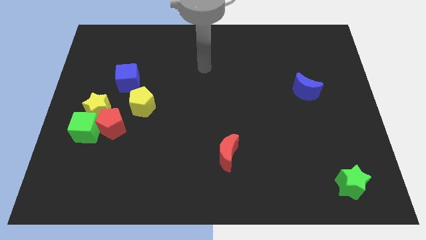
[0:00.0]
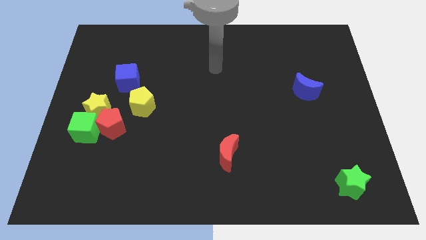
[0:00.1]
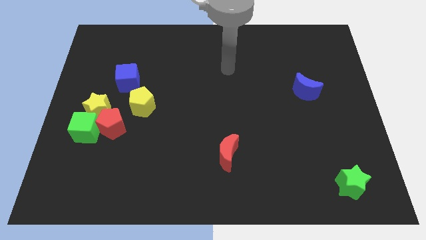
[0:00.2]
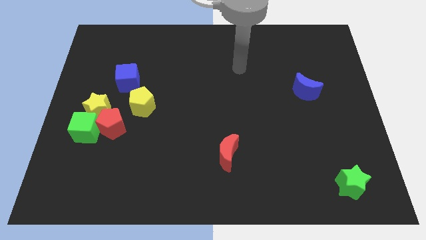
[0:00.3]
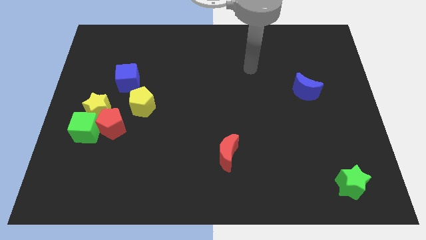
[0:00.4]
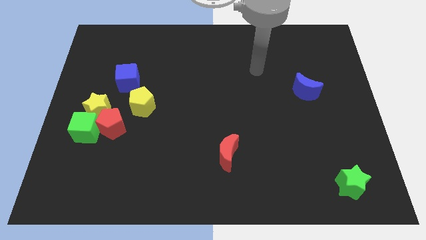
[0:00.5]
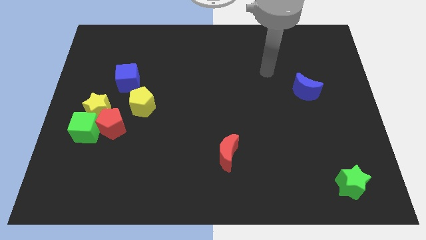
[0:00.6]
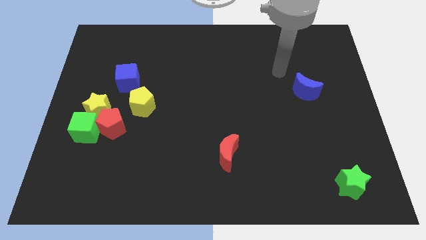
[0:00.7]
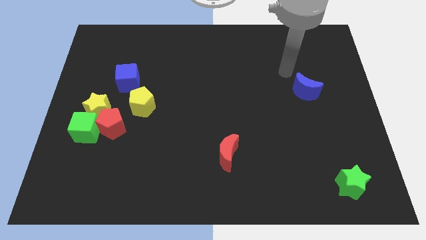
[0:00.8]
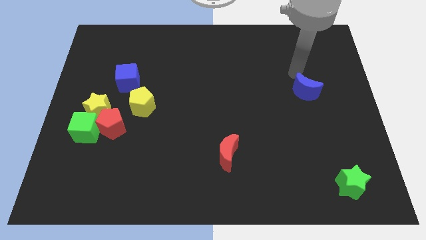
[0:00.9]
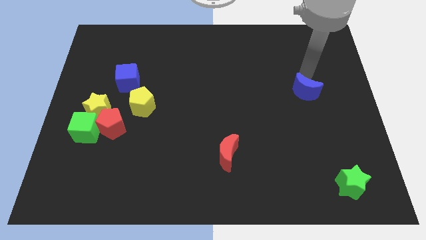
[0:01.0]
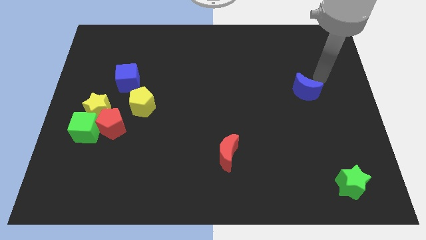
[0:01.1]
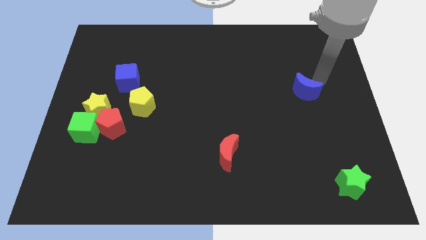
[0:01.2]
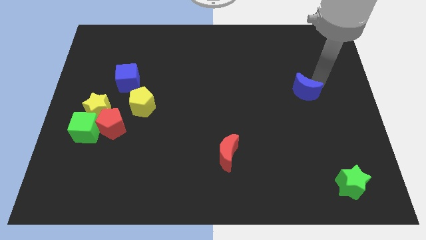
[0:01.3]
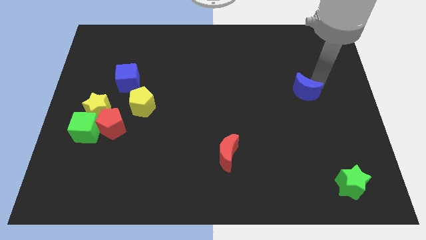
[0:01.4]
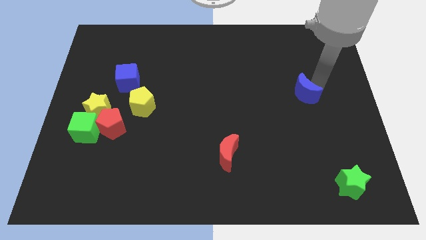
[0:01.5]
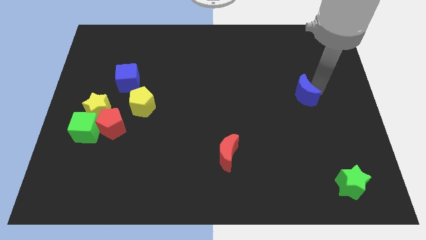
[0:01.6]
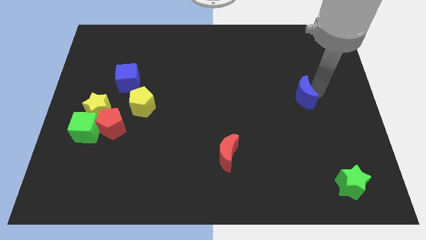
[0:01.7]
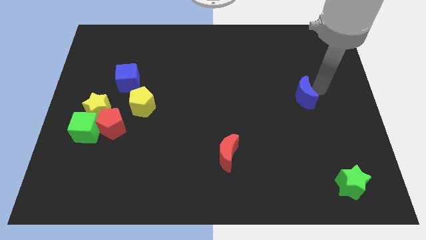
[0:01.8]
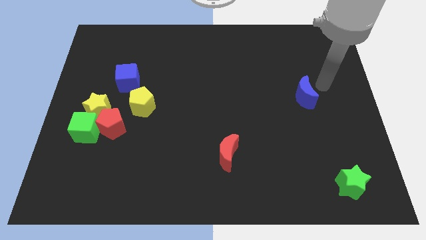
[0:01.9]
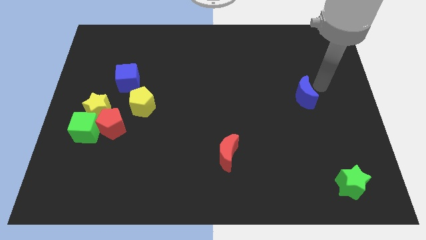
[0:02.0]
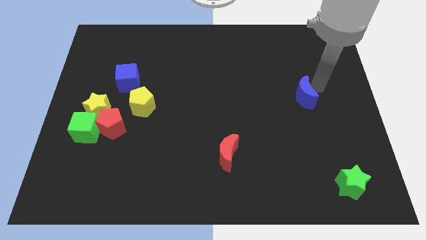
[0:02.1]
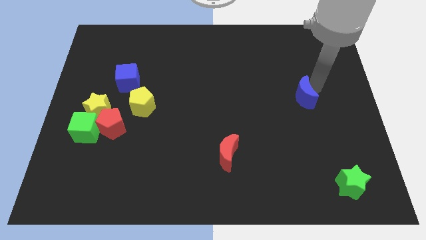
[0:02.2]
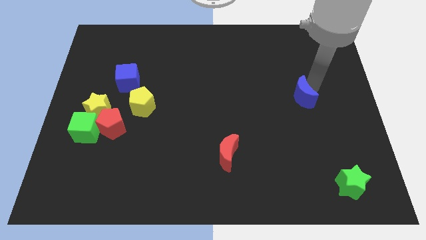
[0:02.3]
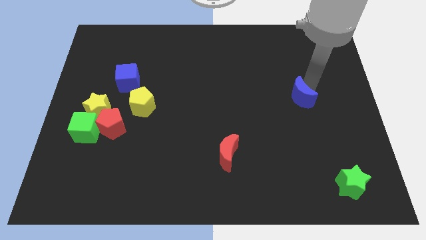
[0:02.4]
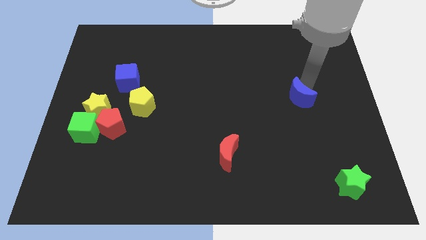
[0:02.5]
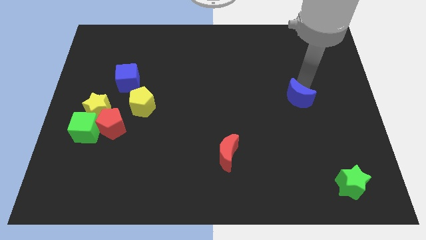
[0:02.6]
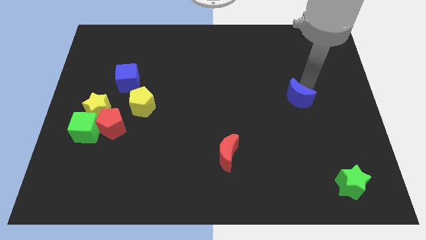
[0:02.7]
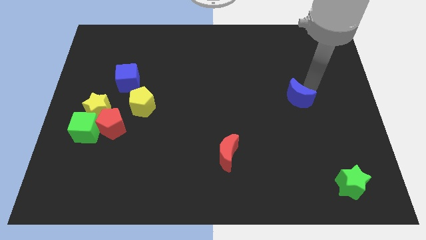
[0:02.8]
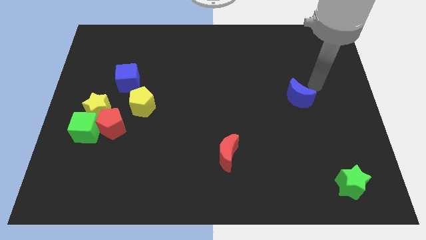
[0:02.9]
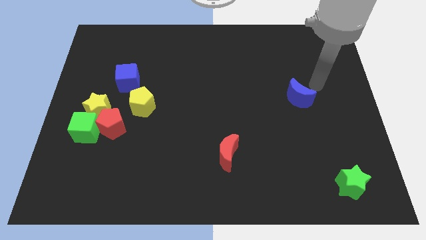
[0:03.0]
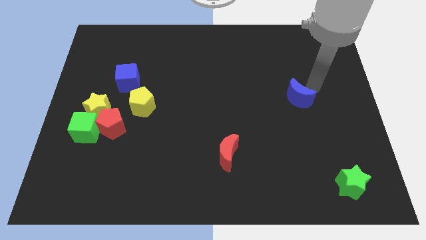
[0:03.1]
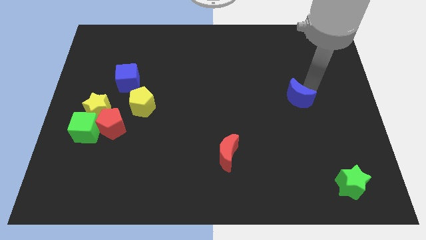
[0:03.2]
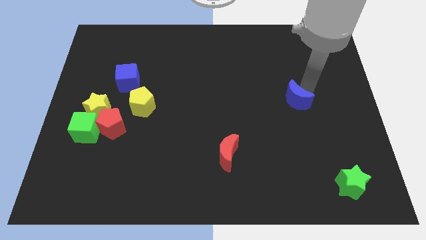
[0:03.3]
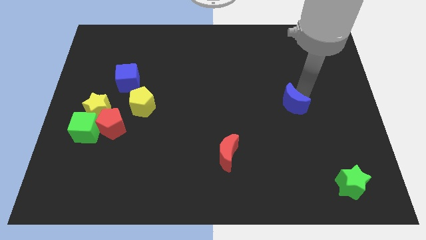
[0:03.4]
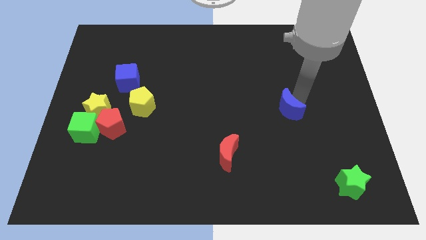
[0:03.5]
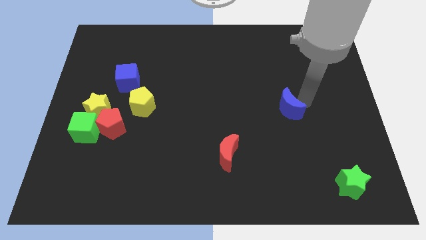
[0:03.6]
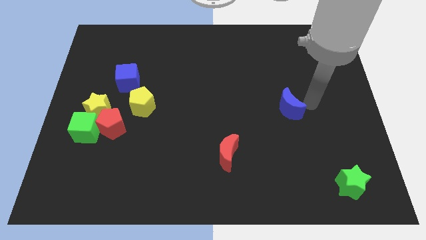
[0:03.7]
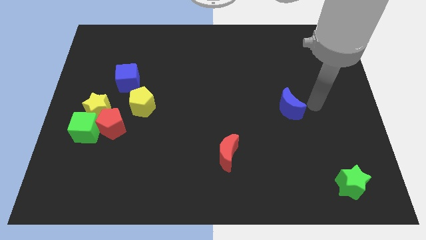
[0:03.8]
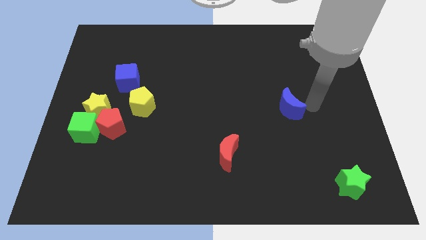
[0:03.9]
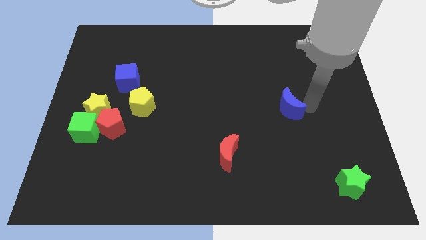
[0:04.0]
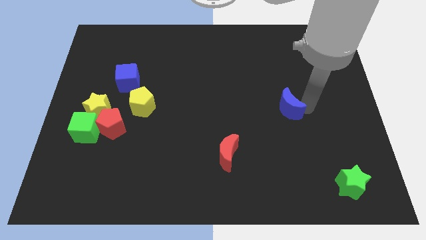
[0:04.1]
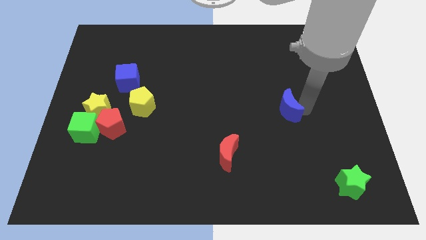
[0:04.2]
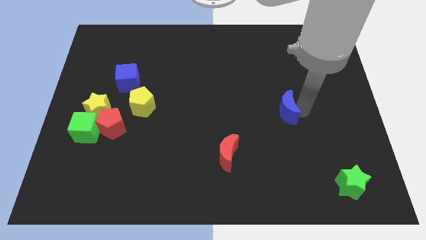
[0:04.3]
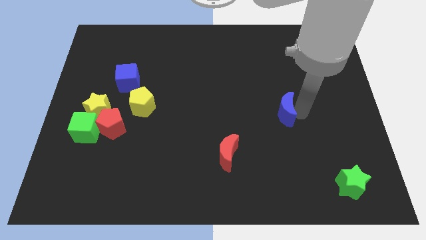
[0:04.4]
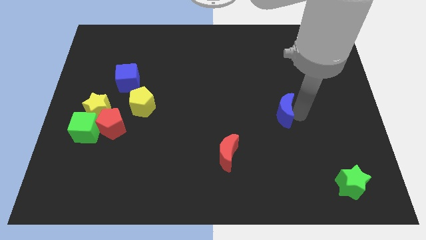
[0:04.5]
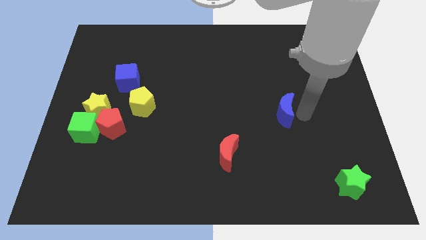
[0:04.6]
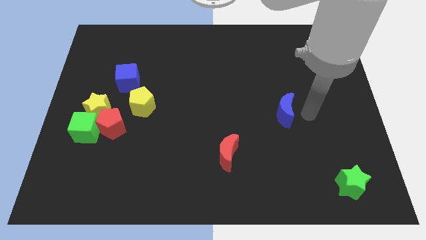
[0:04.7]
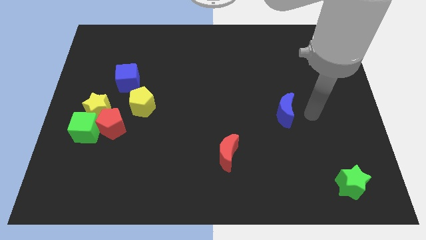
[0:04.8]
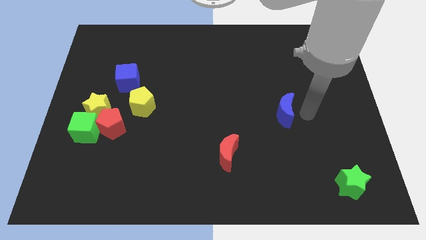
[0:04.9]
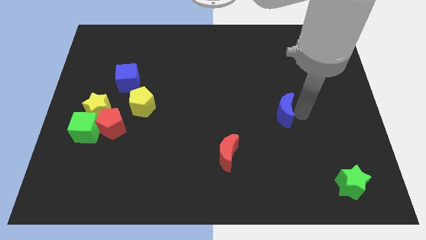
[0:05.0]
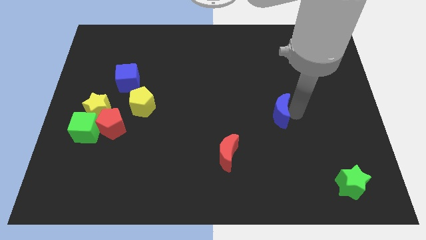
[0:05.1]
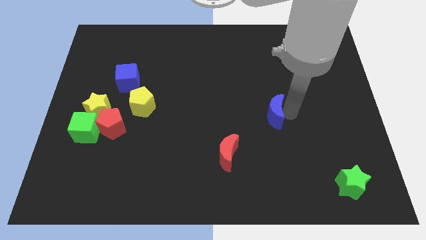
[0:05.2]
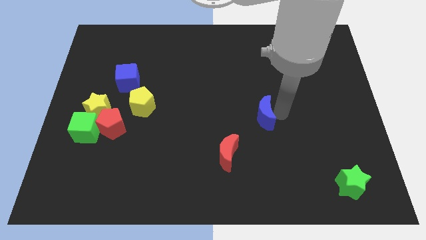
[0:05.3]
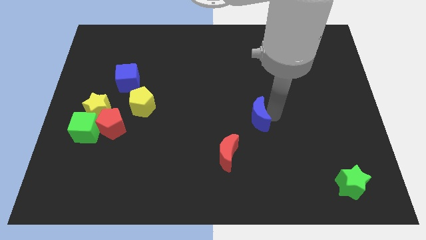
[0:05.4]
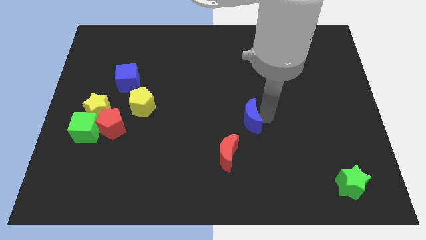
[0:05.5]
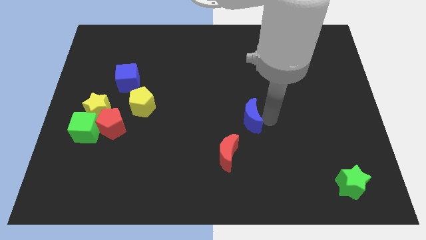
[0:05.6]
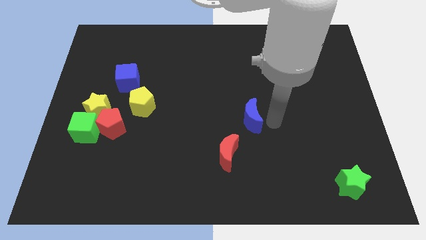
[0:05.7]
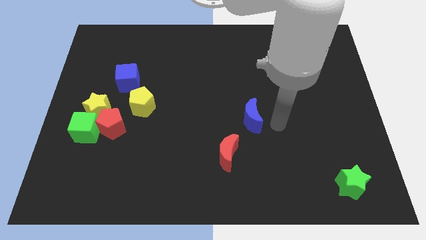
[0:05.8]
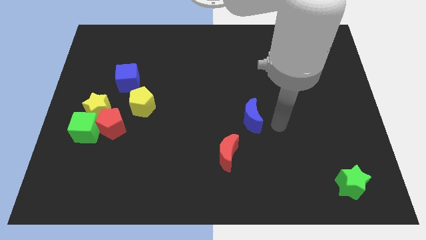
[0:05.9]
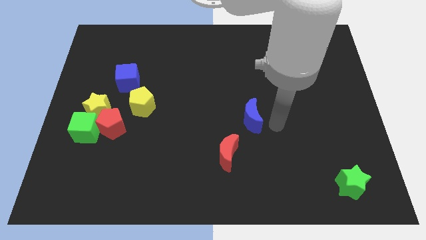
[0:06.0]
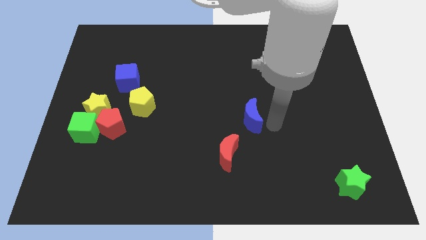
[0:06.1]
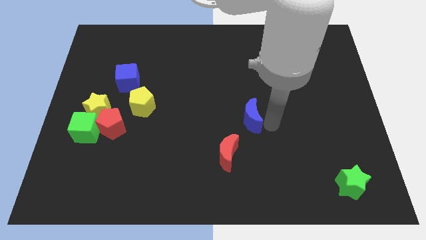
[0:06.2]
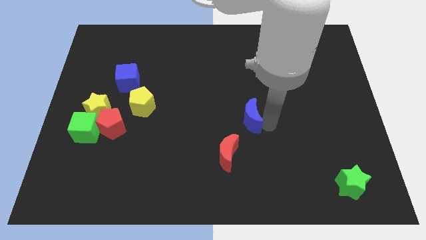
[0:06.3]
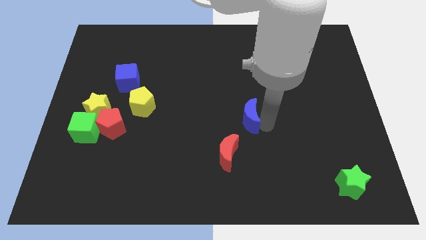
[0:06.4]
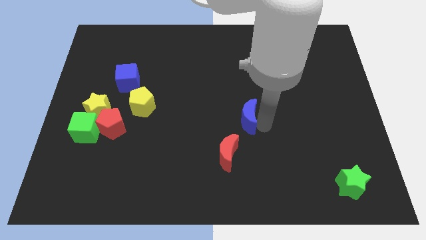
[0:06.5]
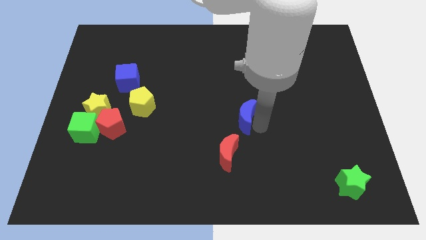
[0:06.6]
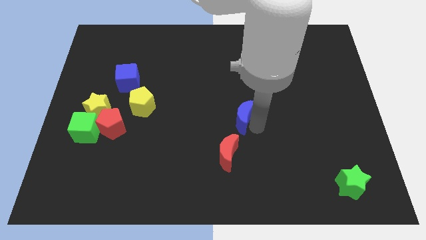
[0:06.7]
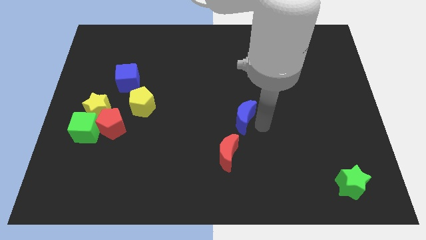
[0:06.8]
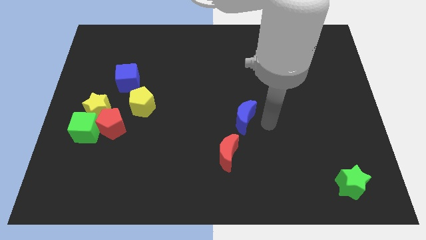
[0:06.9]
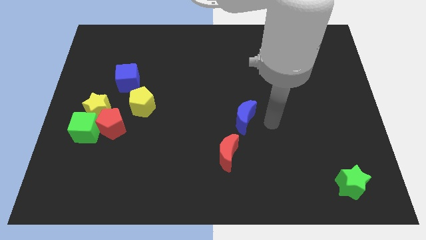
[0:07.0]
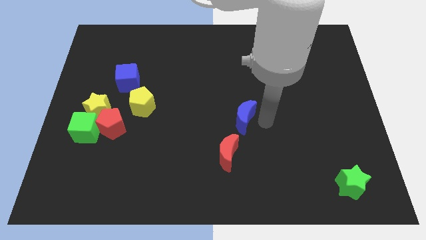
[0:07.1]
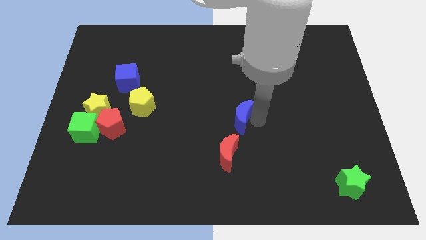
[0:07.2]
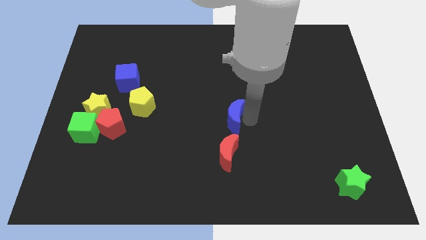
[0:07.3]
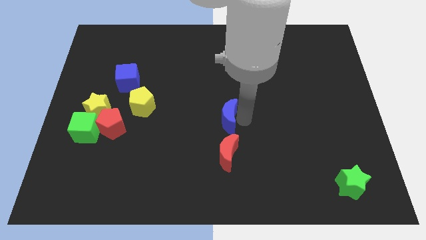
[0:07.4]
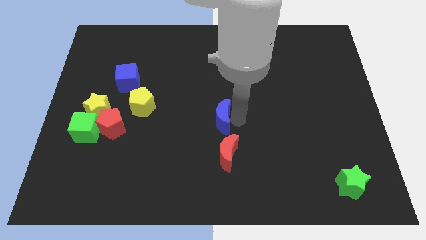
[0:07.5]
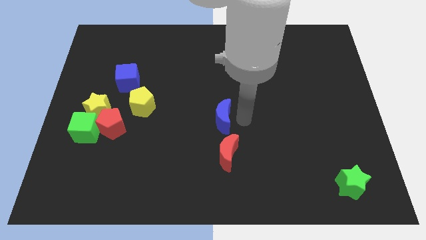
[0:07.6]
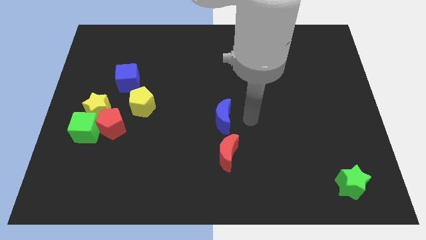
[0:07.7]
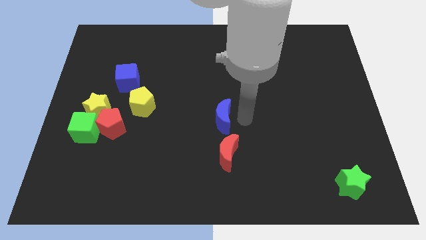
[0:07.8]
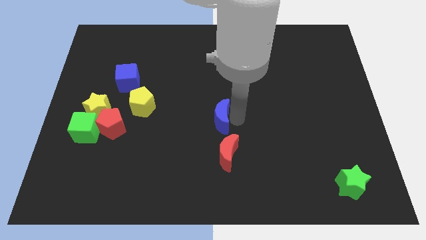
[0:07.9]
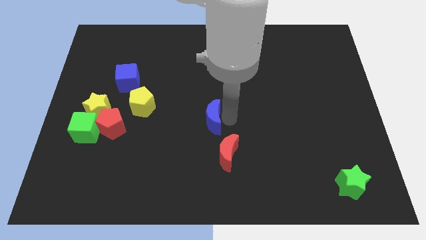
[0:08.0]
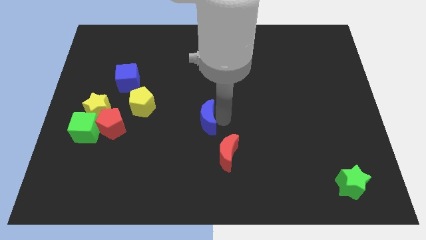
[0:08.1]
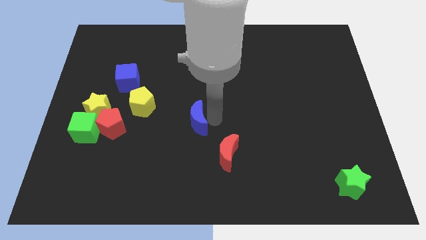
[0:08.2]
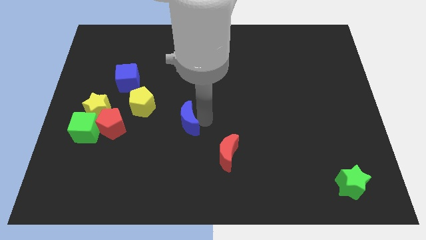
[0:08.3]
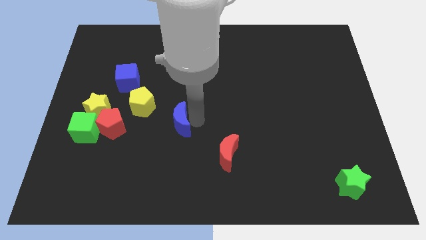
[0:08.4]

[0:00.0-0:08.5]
push the blue moon to the right of the red pentagon
